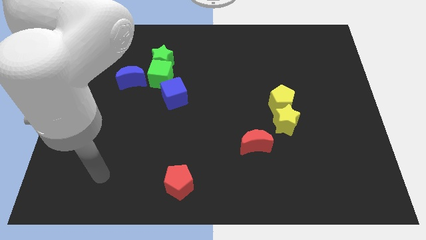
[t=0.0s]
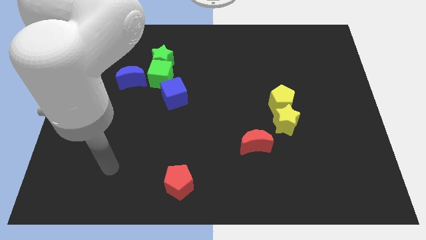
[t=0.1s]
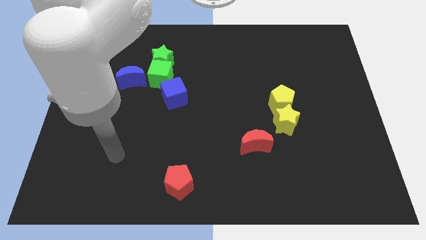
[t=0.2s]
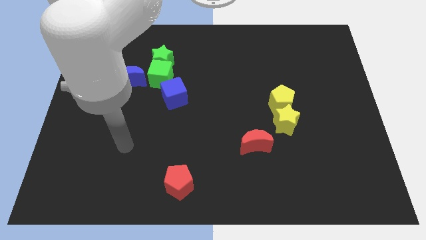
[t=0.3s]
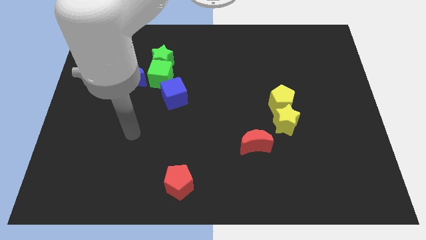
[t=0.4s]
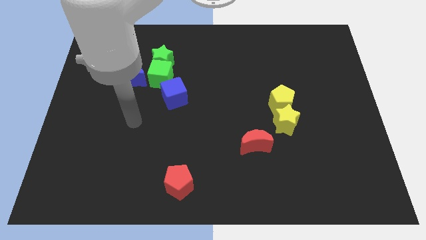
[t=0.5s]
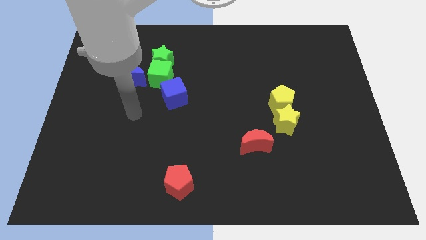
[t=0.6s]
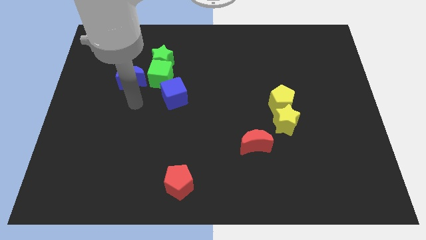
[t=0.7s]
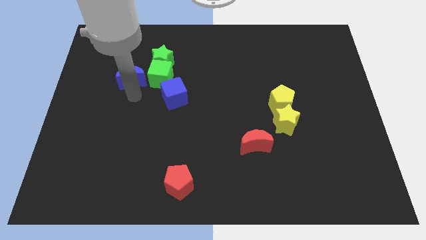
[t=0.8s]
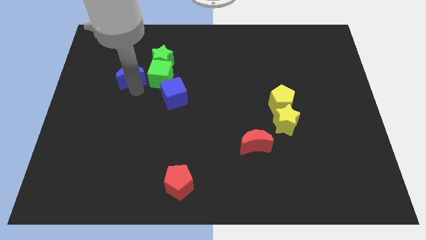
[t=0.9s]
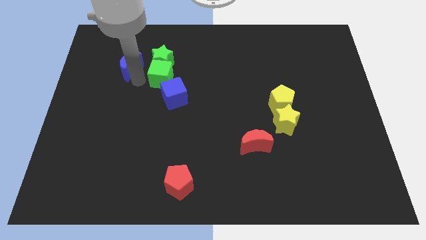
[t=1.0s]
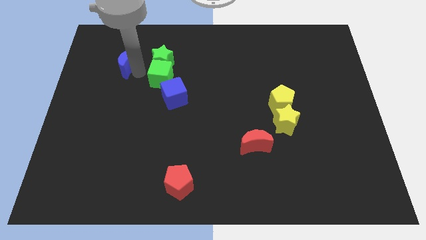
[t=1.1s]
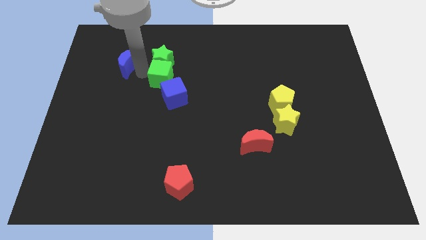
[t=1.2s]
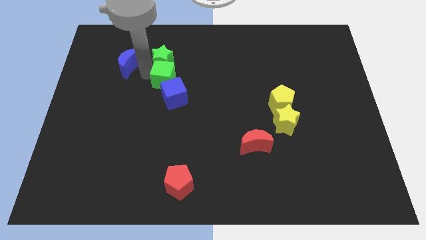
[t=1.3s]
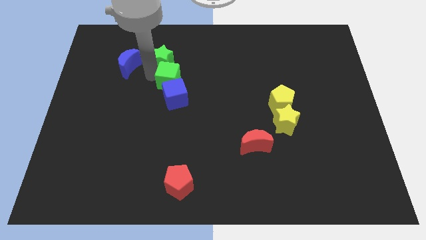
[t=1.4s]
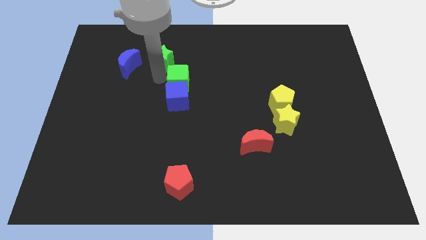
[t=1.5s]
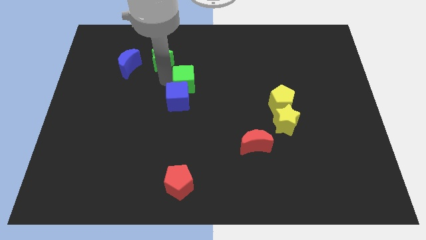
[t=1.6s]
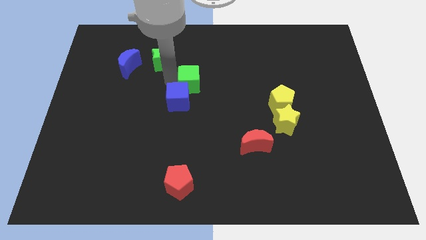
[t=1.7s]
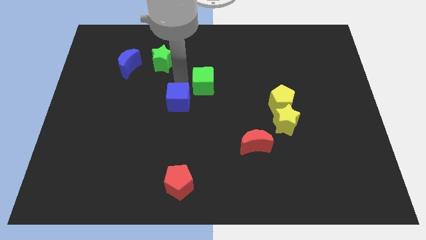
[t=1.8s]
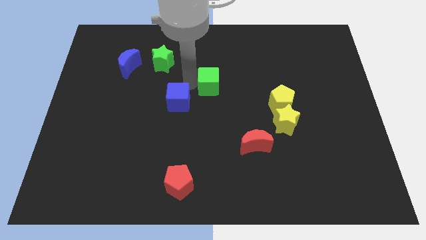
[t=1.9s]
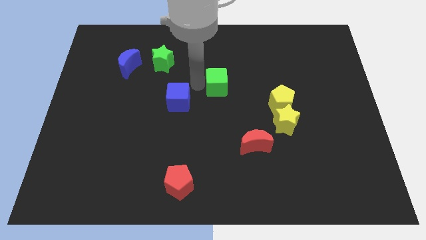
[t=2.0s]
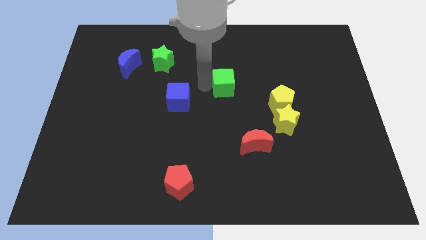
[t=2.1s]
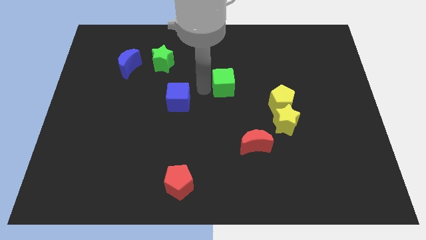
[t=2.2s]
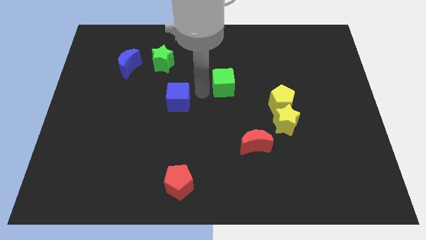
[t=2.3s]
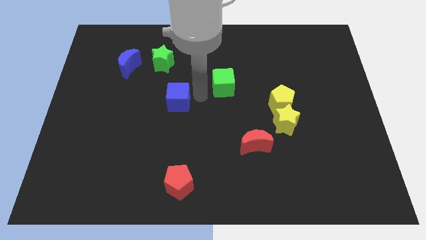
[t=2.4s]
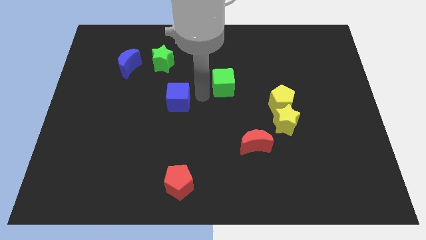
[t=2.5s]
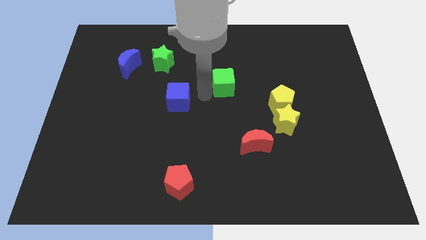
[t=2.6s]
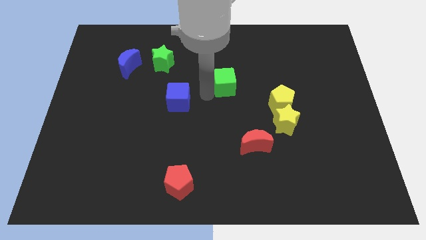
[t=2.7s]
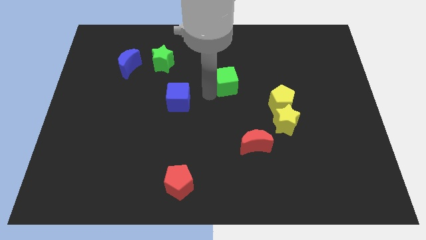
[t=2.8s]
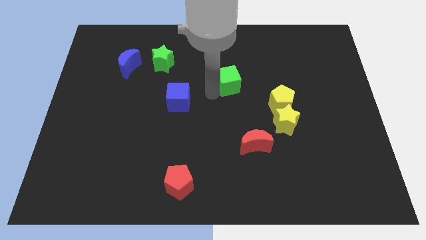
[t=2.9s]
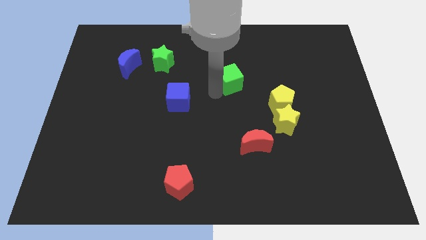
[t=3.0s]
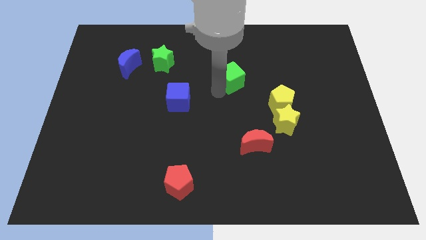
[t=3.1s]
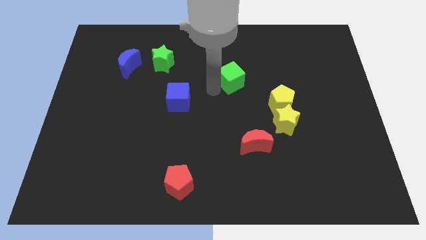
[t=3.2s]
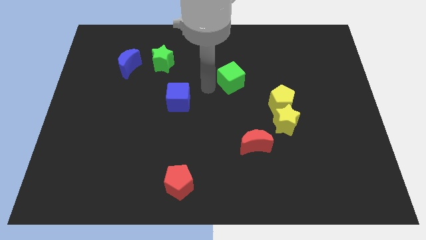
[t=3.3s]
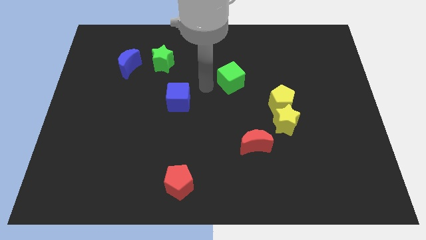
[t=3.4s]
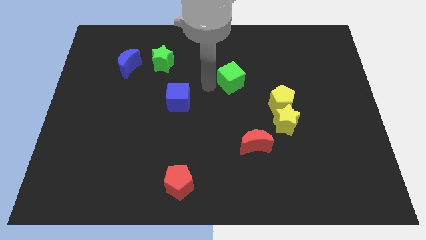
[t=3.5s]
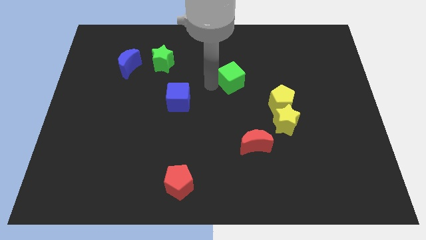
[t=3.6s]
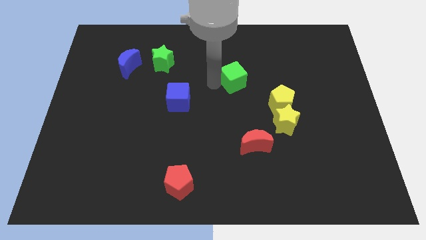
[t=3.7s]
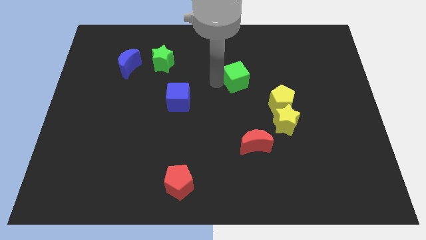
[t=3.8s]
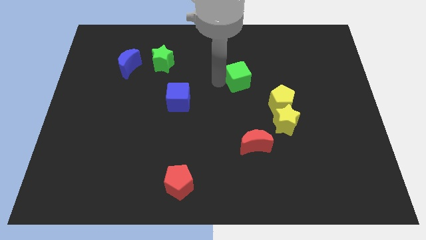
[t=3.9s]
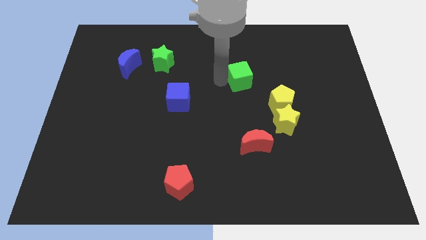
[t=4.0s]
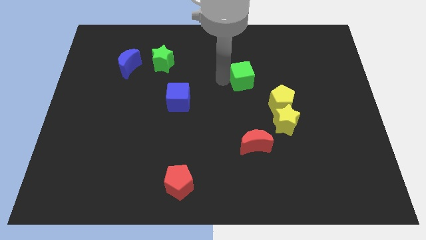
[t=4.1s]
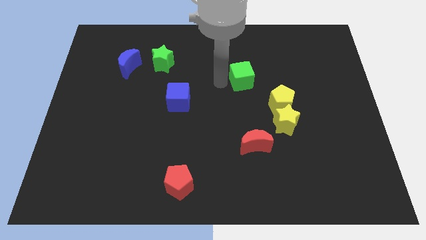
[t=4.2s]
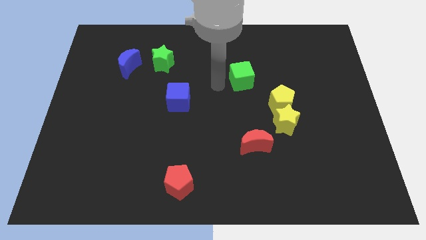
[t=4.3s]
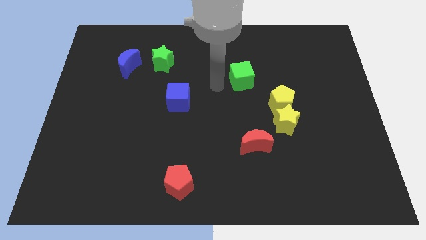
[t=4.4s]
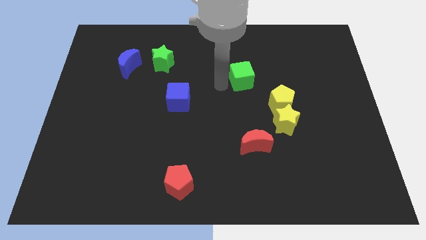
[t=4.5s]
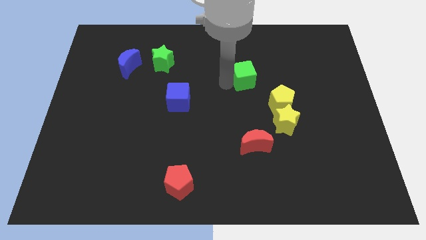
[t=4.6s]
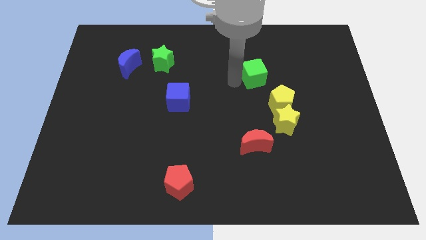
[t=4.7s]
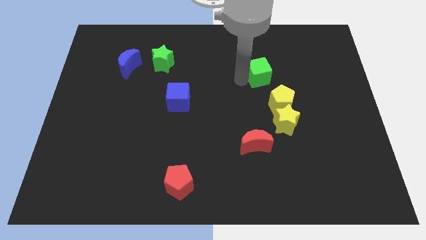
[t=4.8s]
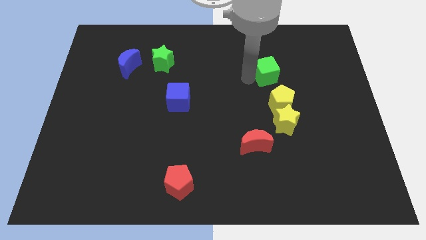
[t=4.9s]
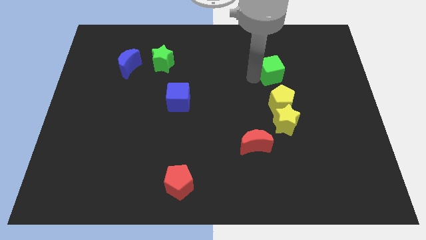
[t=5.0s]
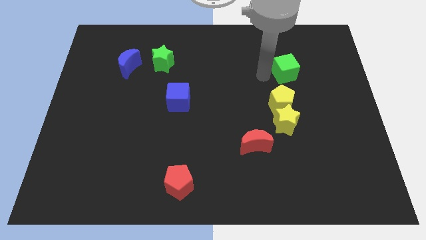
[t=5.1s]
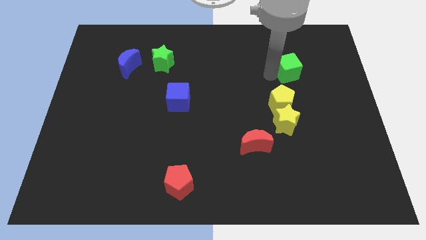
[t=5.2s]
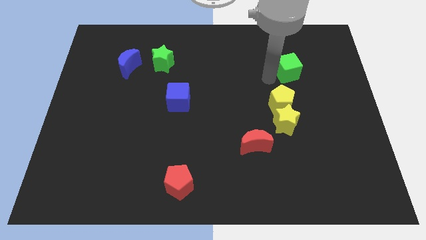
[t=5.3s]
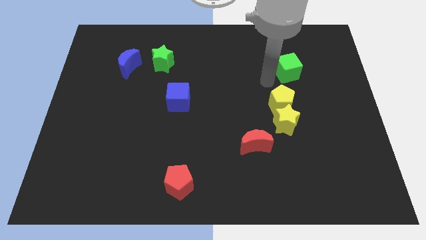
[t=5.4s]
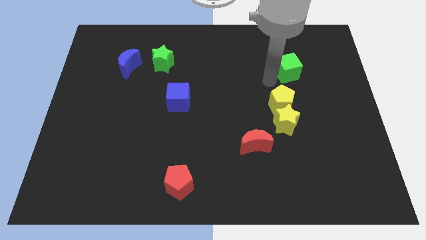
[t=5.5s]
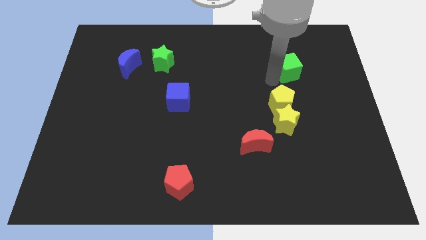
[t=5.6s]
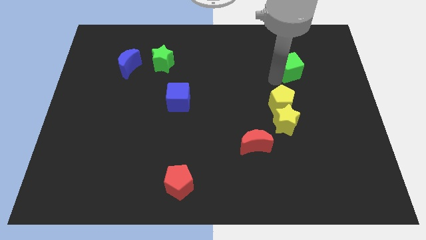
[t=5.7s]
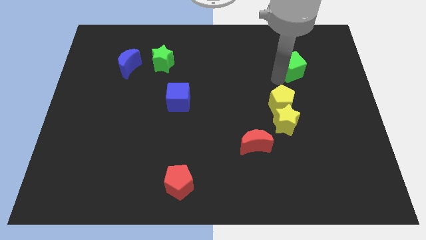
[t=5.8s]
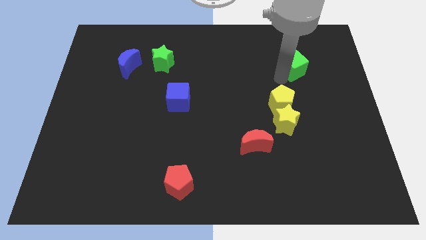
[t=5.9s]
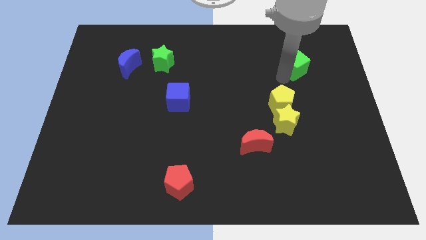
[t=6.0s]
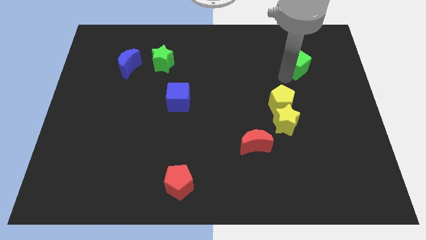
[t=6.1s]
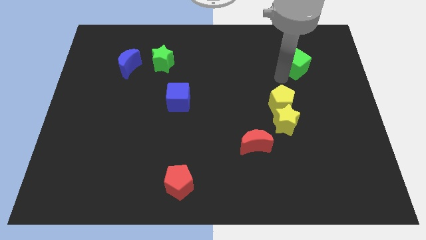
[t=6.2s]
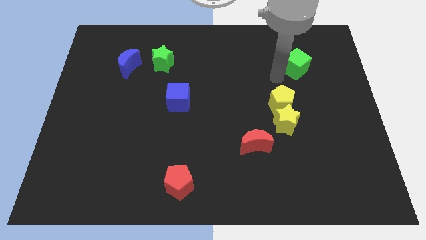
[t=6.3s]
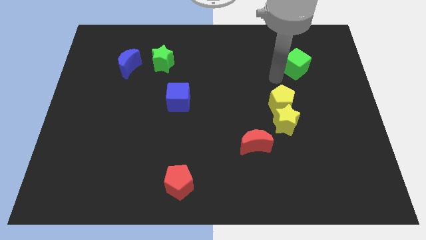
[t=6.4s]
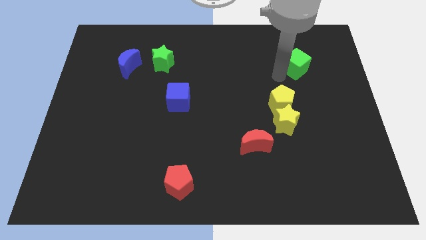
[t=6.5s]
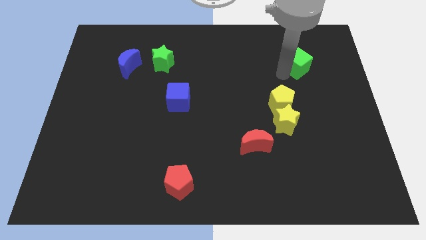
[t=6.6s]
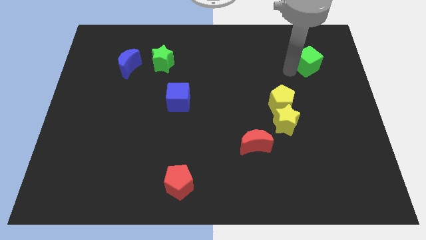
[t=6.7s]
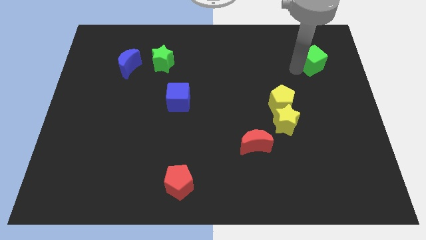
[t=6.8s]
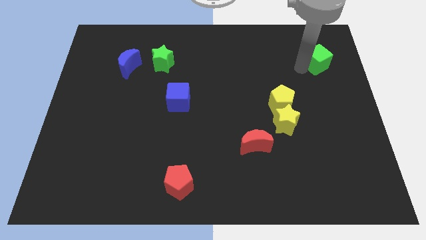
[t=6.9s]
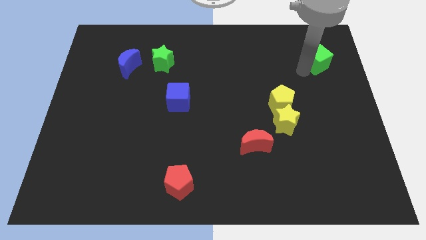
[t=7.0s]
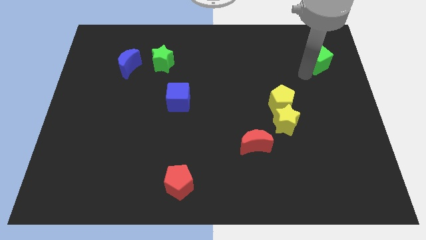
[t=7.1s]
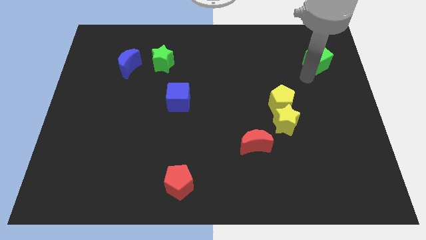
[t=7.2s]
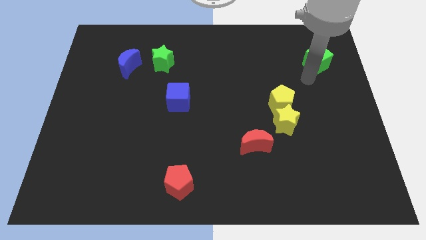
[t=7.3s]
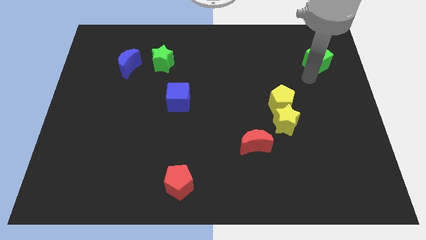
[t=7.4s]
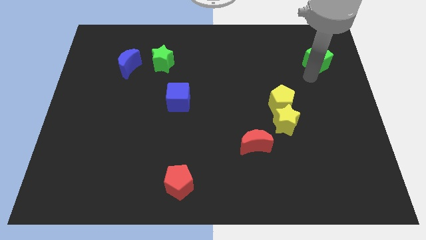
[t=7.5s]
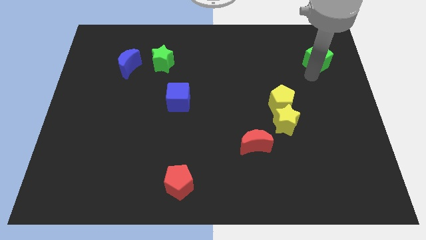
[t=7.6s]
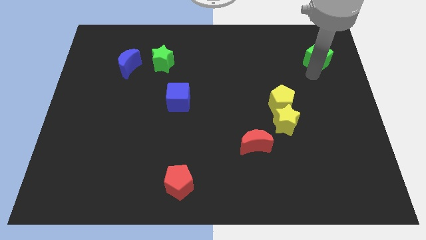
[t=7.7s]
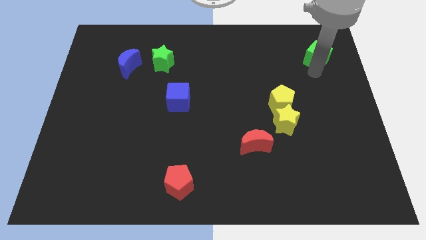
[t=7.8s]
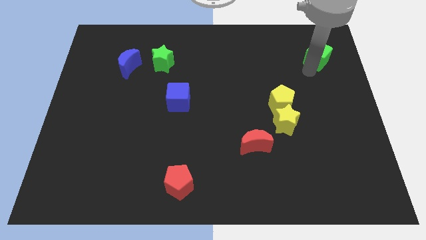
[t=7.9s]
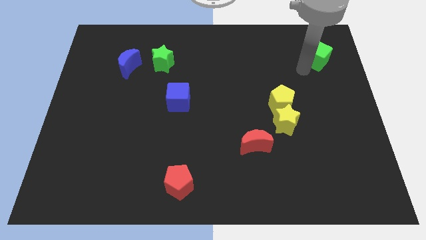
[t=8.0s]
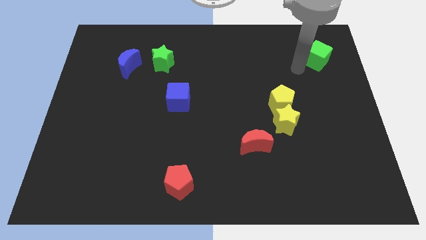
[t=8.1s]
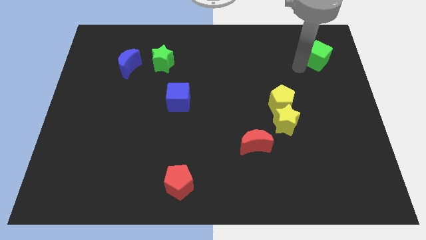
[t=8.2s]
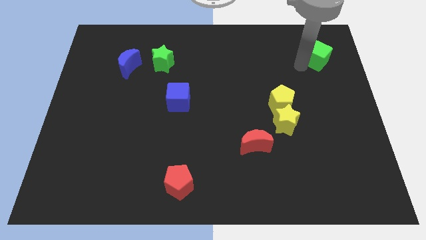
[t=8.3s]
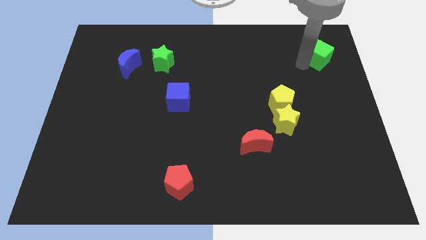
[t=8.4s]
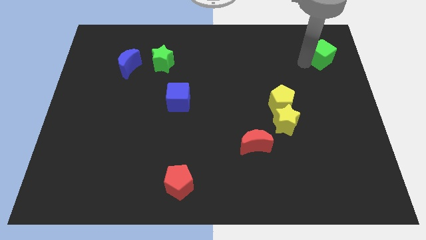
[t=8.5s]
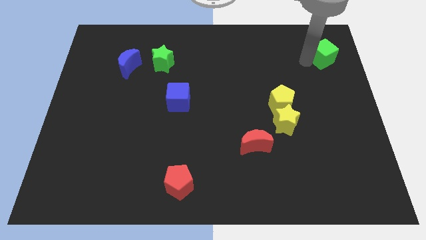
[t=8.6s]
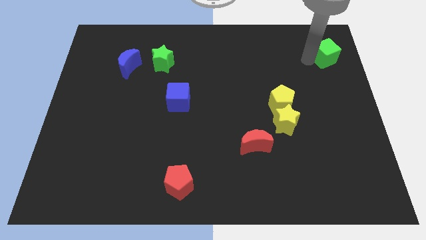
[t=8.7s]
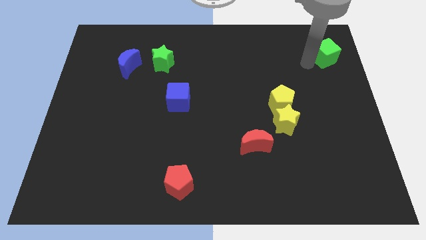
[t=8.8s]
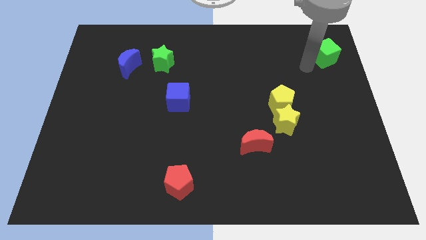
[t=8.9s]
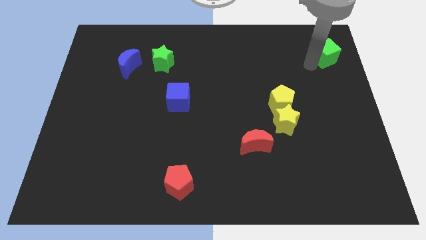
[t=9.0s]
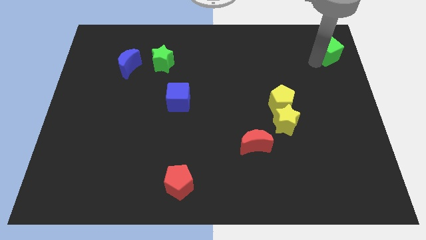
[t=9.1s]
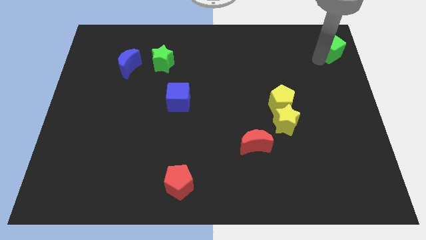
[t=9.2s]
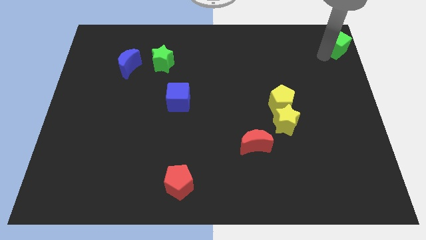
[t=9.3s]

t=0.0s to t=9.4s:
put the green cube to the top right
